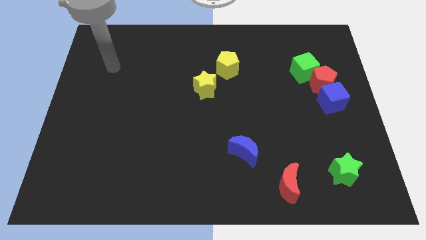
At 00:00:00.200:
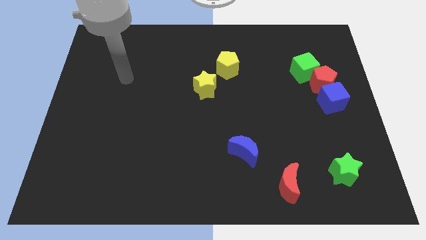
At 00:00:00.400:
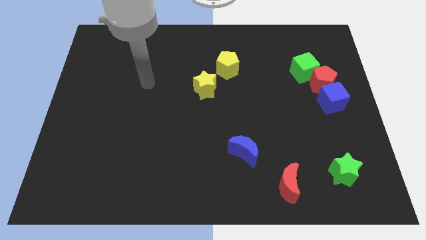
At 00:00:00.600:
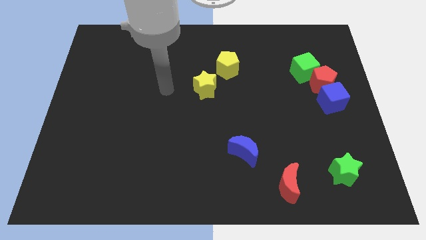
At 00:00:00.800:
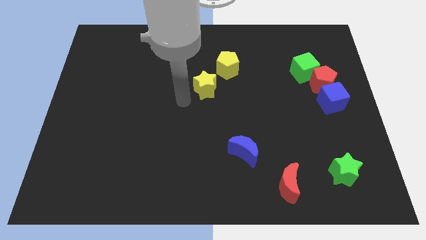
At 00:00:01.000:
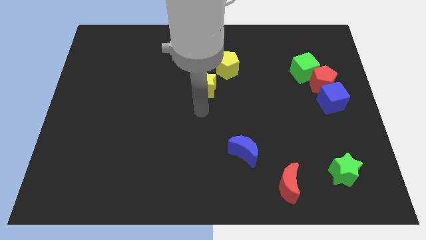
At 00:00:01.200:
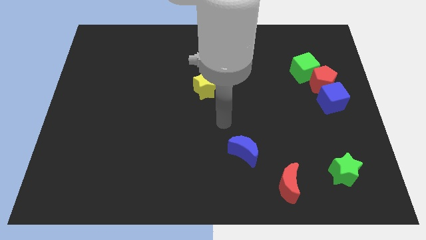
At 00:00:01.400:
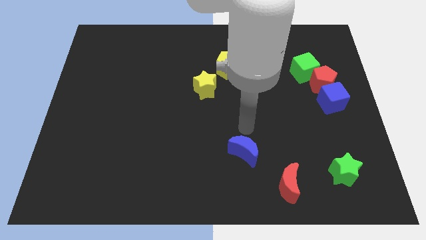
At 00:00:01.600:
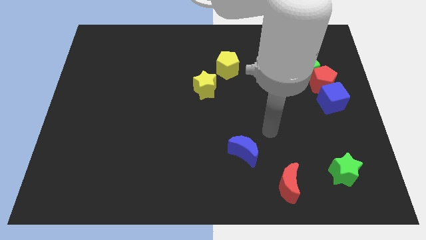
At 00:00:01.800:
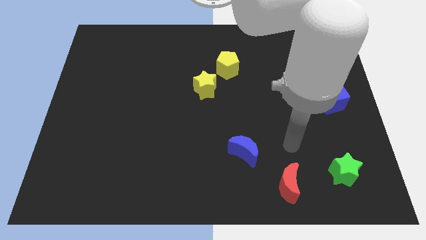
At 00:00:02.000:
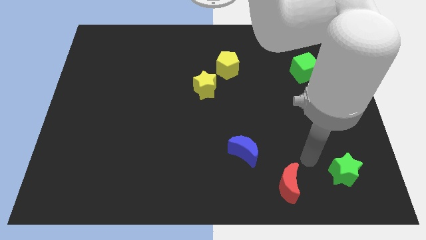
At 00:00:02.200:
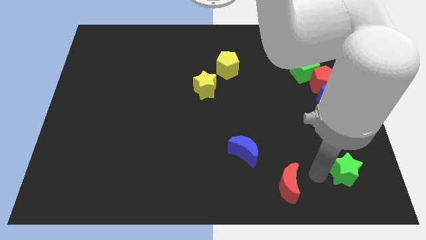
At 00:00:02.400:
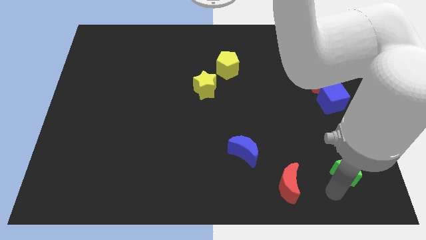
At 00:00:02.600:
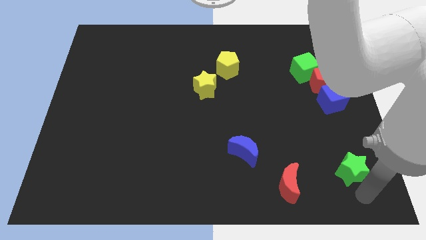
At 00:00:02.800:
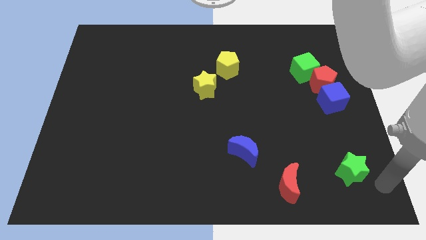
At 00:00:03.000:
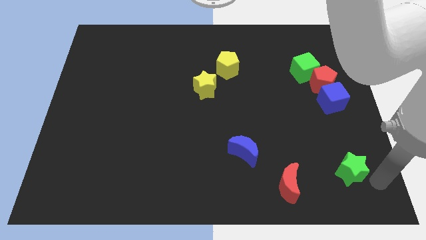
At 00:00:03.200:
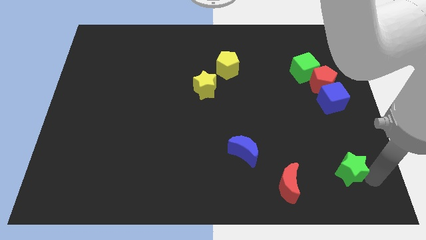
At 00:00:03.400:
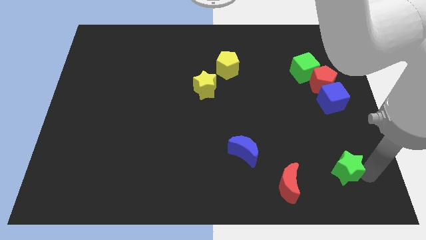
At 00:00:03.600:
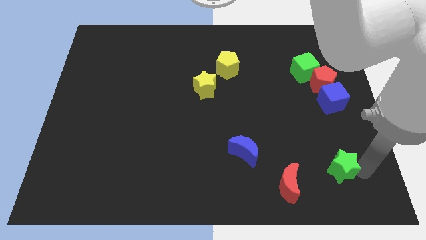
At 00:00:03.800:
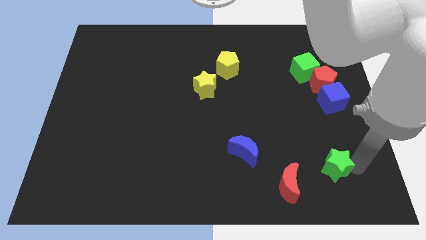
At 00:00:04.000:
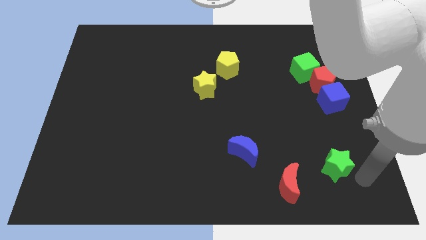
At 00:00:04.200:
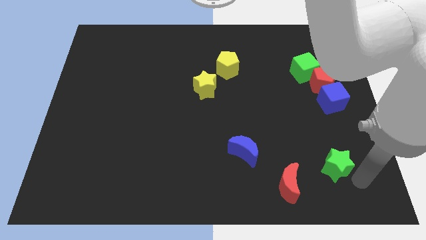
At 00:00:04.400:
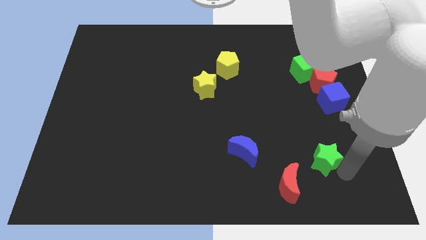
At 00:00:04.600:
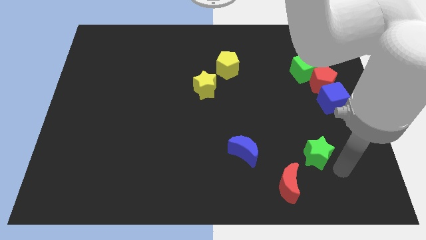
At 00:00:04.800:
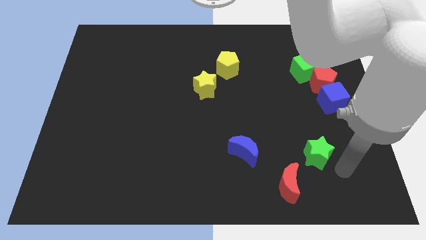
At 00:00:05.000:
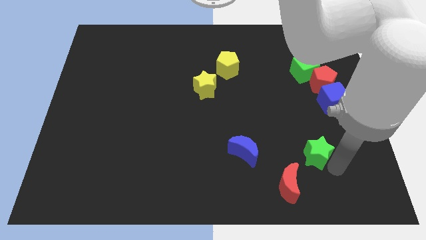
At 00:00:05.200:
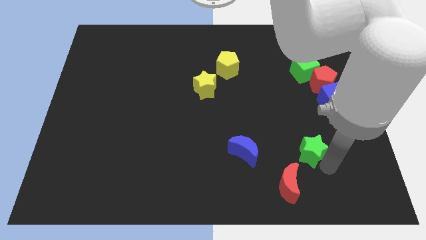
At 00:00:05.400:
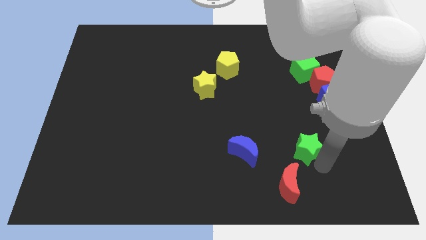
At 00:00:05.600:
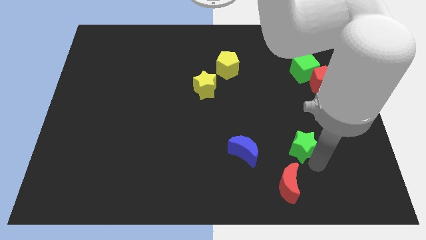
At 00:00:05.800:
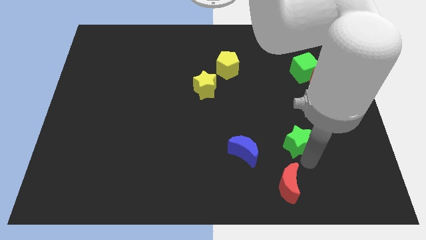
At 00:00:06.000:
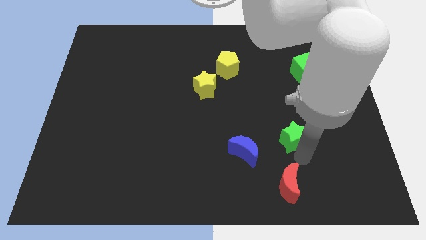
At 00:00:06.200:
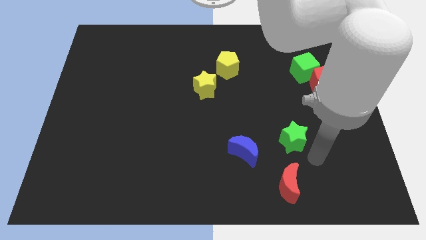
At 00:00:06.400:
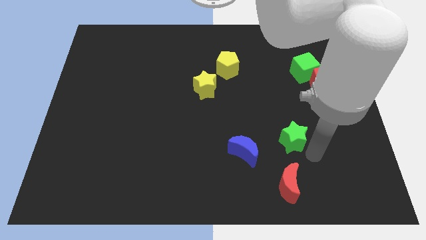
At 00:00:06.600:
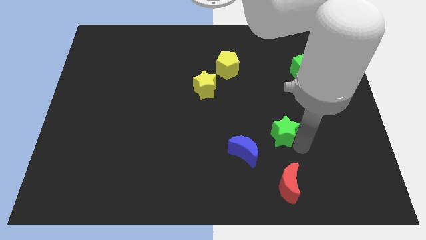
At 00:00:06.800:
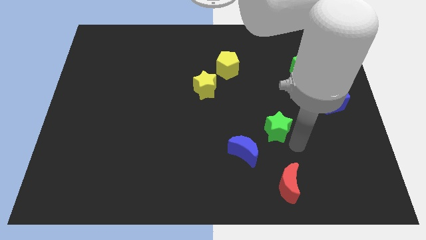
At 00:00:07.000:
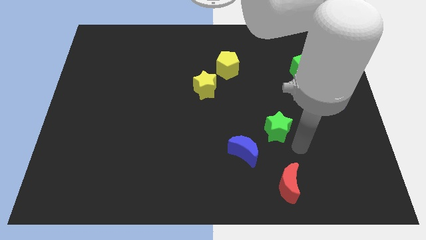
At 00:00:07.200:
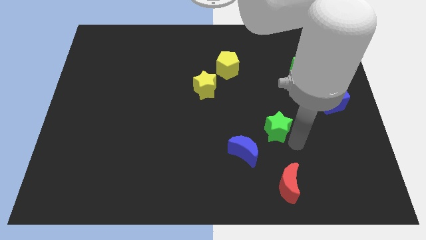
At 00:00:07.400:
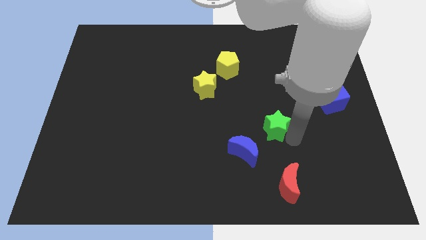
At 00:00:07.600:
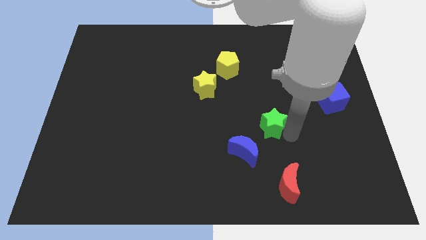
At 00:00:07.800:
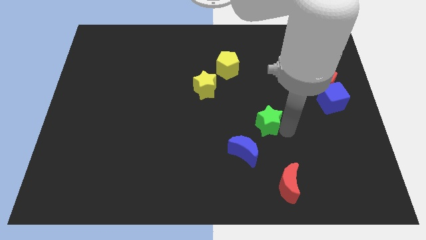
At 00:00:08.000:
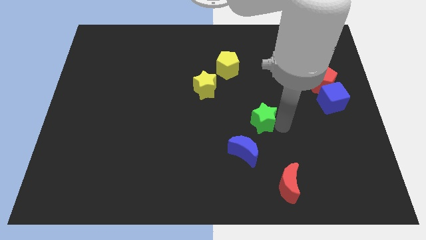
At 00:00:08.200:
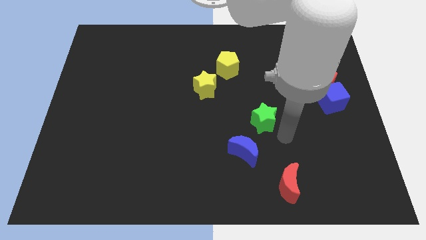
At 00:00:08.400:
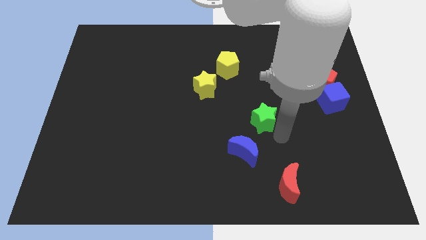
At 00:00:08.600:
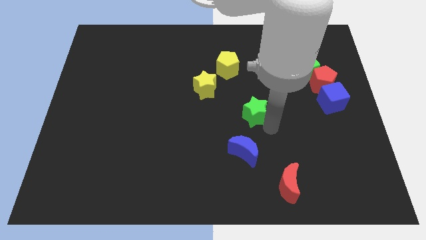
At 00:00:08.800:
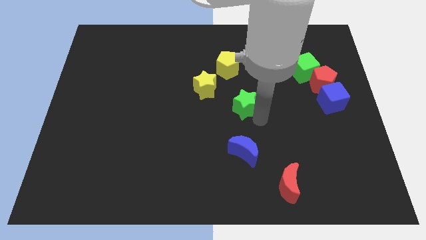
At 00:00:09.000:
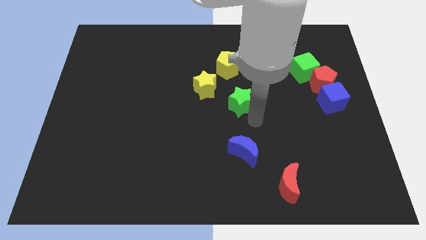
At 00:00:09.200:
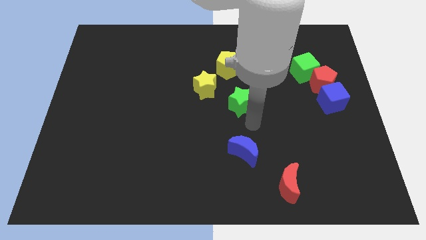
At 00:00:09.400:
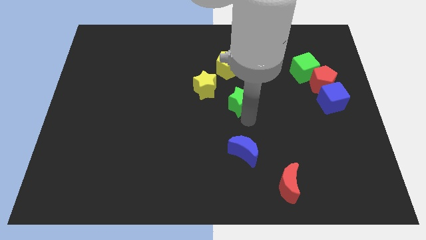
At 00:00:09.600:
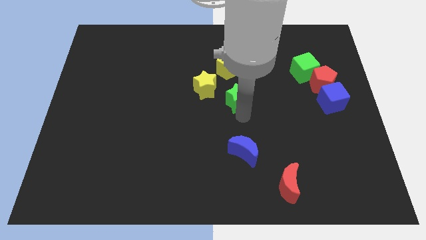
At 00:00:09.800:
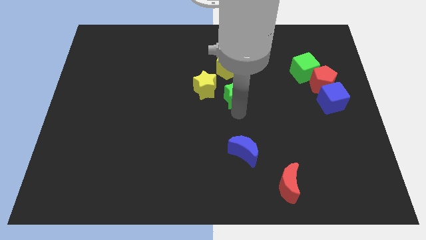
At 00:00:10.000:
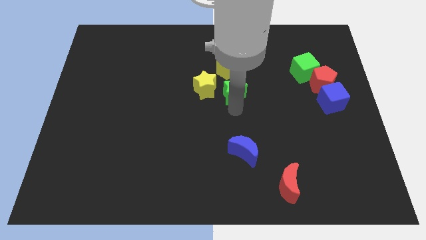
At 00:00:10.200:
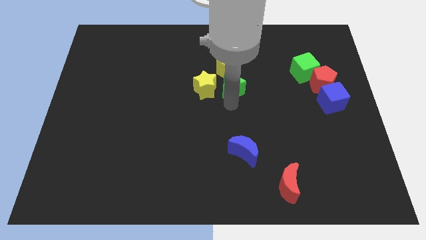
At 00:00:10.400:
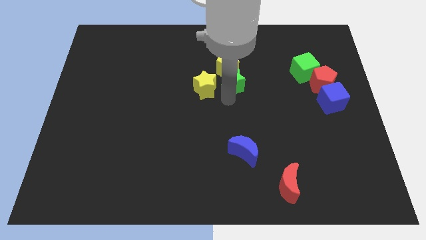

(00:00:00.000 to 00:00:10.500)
slide the green star to the yellow pentagon
